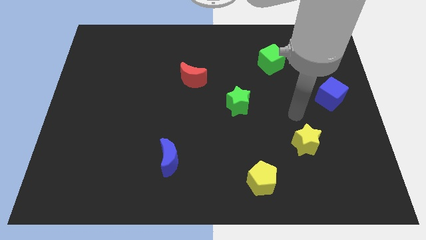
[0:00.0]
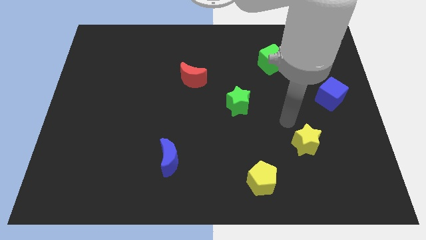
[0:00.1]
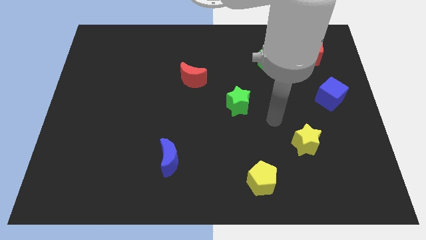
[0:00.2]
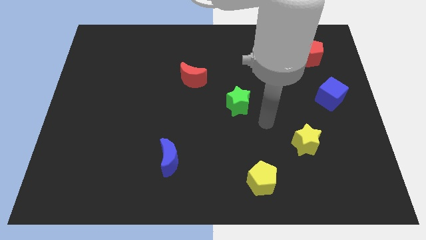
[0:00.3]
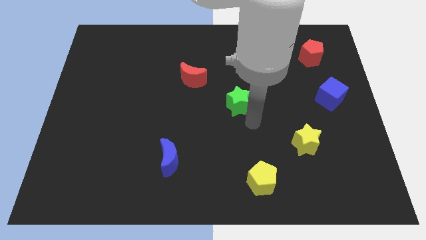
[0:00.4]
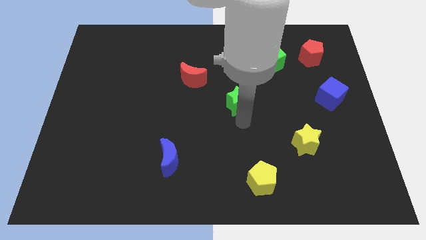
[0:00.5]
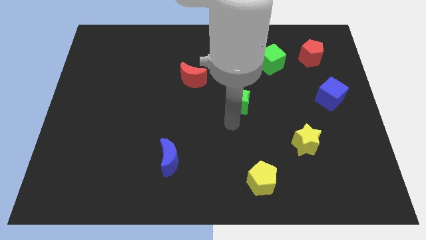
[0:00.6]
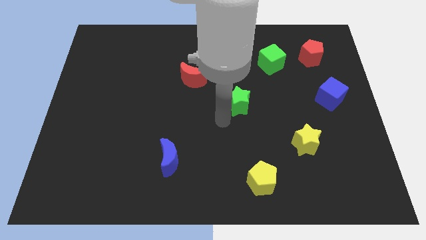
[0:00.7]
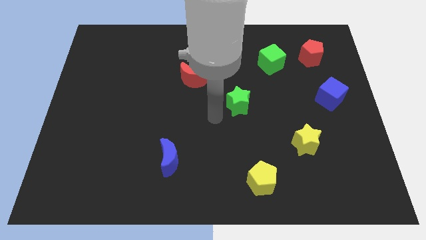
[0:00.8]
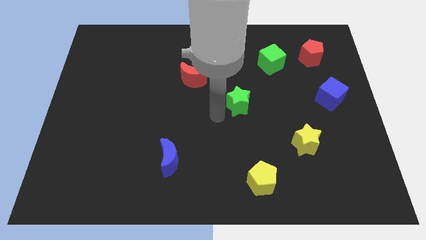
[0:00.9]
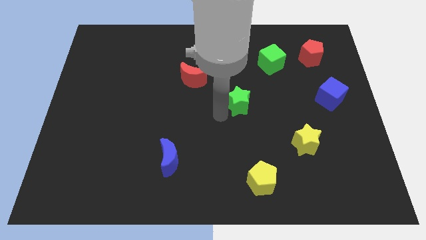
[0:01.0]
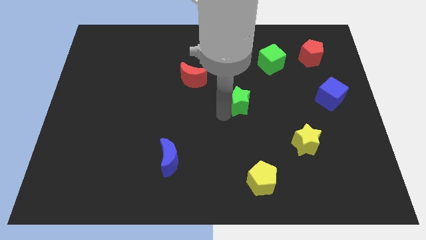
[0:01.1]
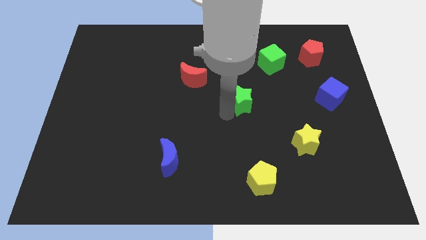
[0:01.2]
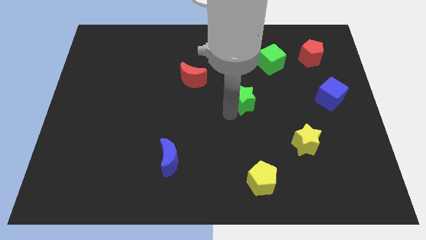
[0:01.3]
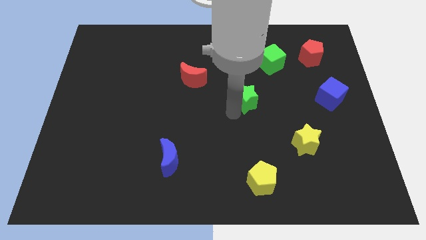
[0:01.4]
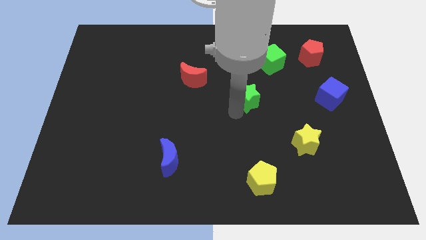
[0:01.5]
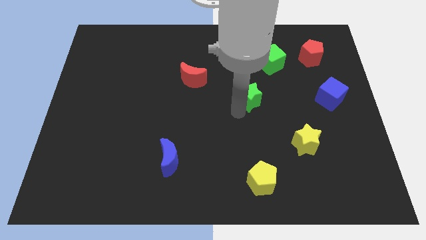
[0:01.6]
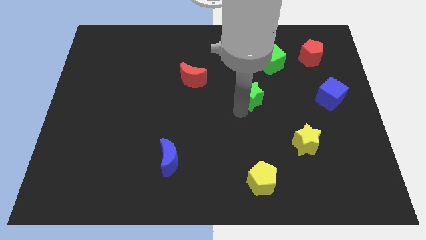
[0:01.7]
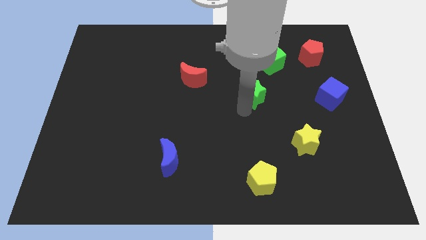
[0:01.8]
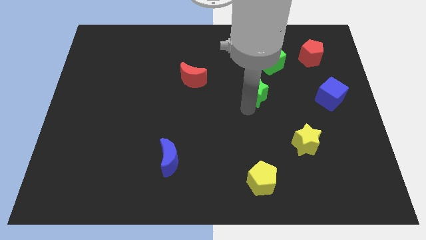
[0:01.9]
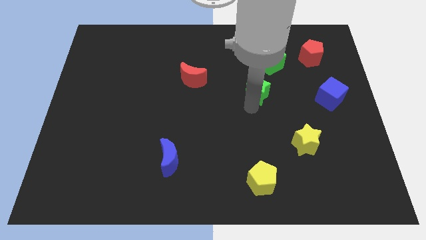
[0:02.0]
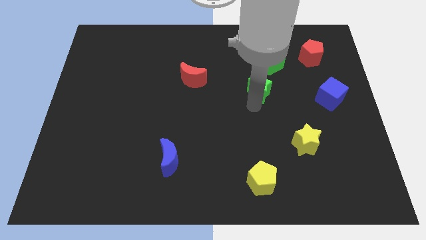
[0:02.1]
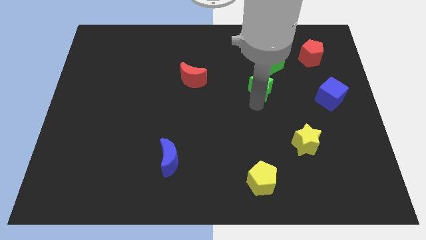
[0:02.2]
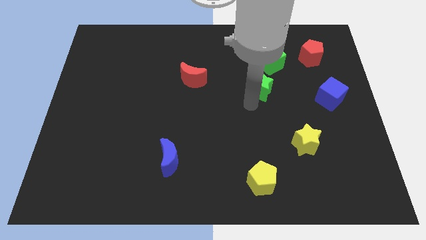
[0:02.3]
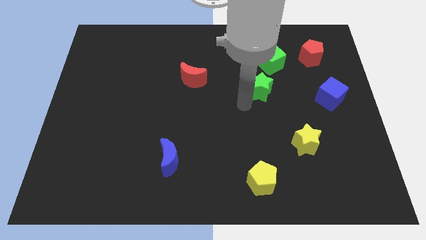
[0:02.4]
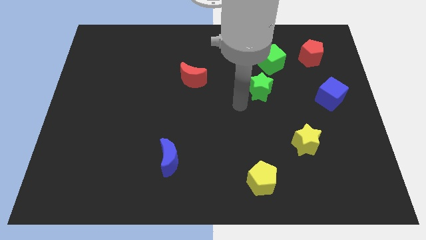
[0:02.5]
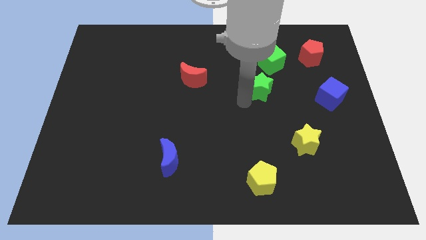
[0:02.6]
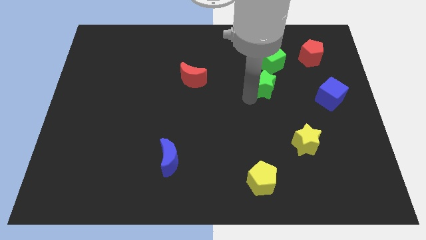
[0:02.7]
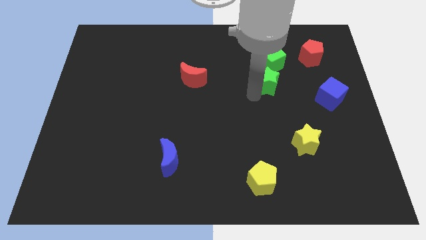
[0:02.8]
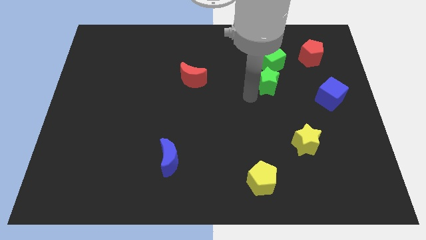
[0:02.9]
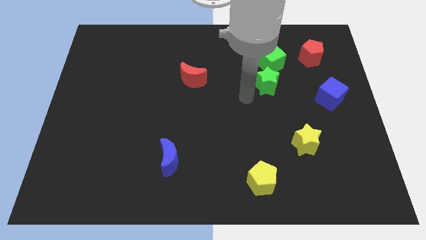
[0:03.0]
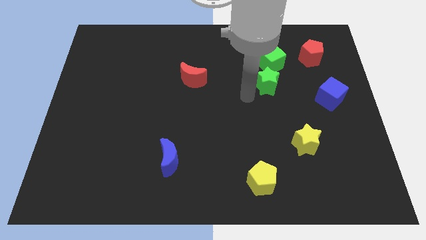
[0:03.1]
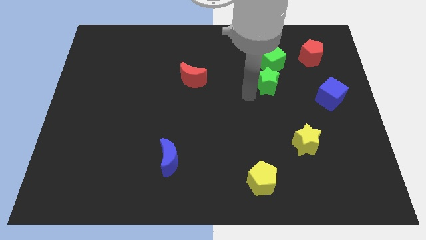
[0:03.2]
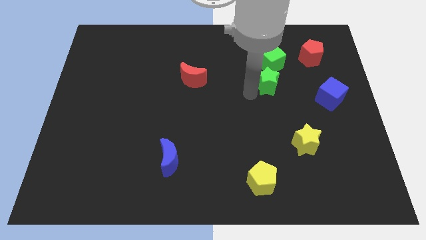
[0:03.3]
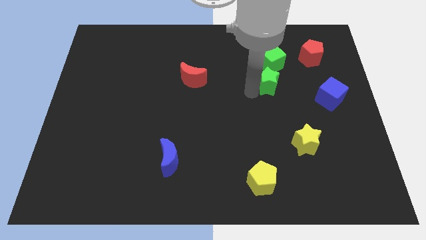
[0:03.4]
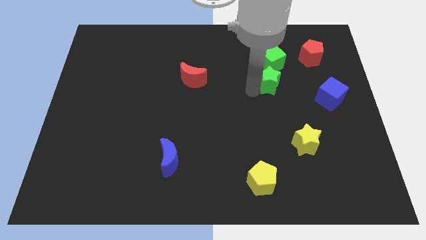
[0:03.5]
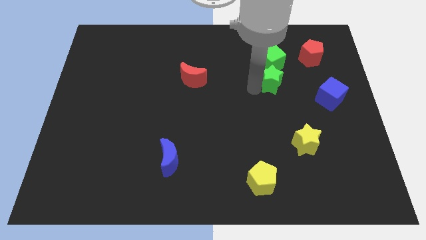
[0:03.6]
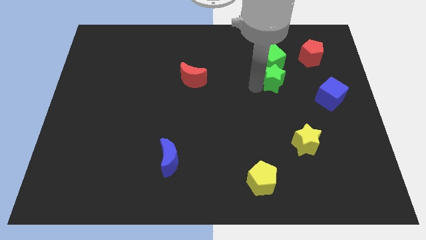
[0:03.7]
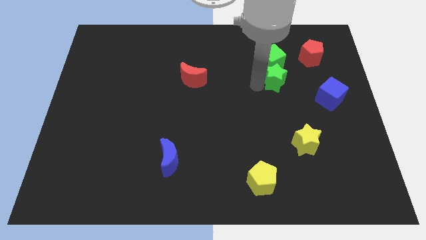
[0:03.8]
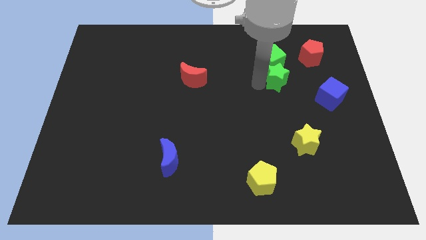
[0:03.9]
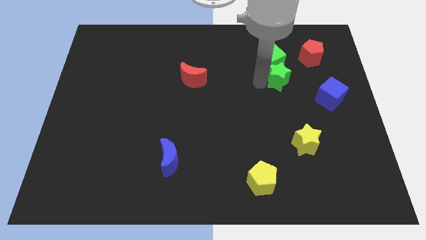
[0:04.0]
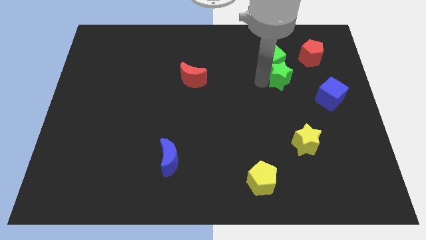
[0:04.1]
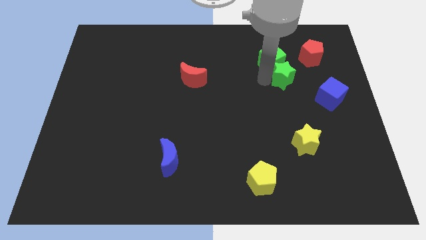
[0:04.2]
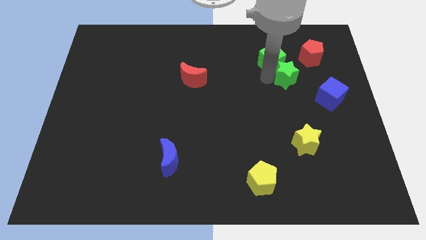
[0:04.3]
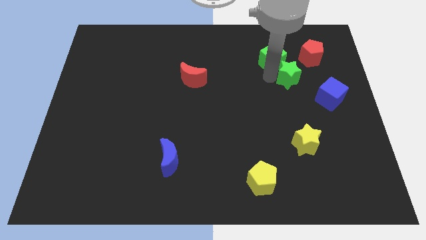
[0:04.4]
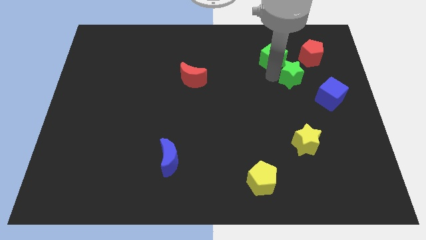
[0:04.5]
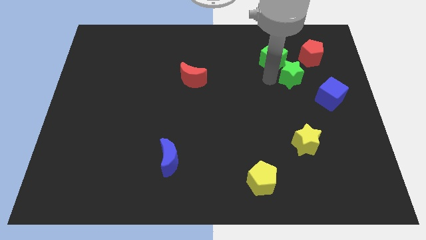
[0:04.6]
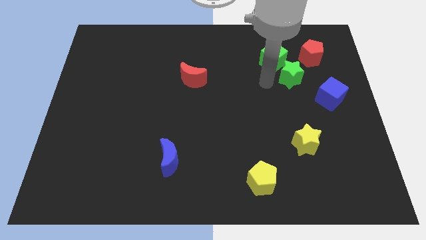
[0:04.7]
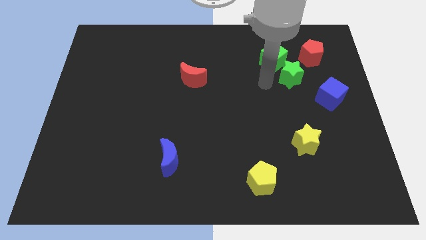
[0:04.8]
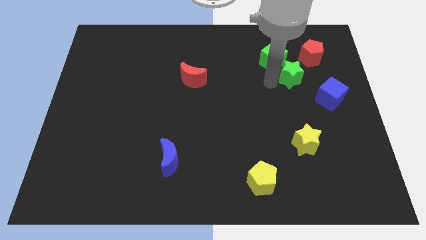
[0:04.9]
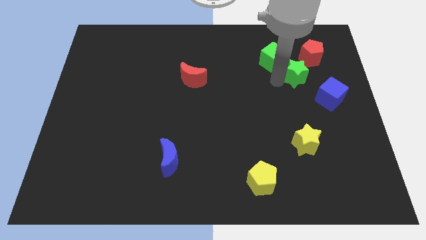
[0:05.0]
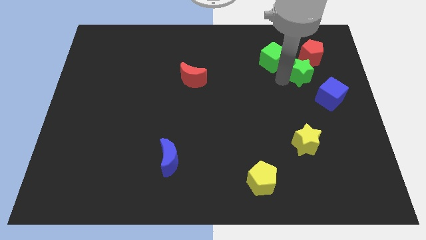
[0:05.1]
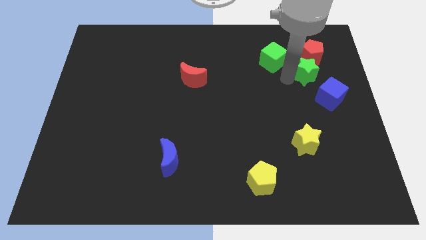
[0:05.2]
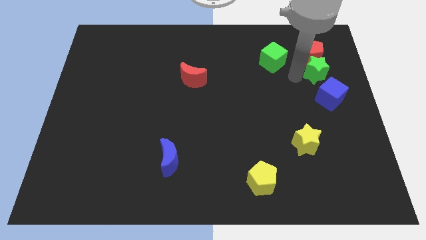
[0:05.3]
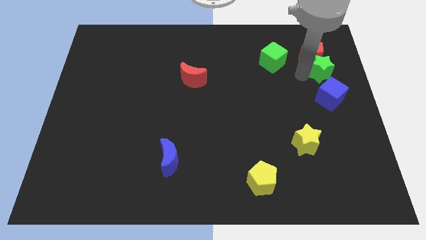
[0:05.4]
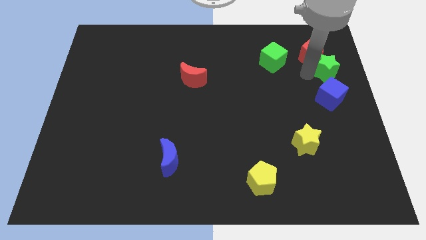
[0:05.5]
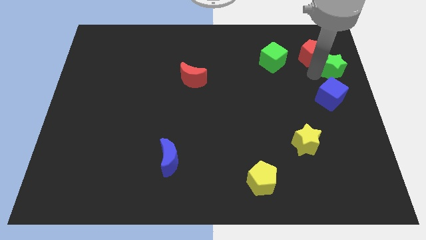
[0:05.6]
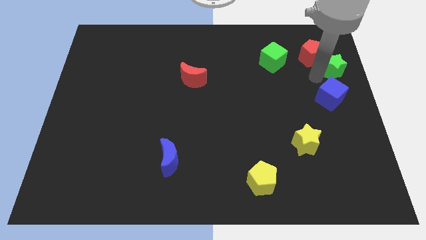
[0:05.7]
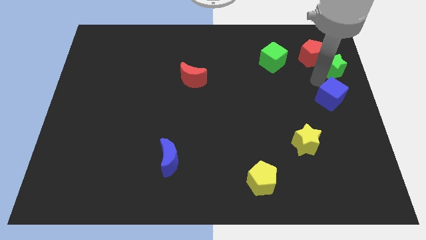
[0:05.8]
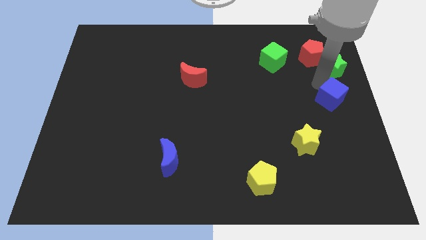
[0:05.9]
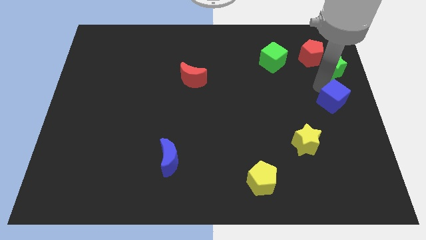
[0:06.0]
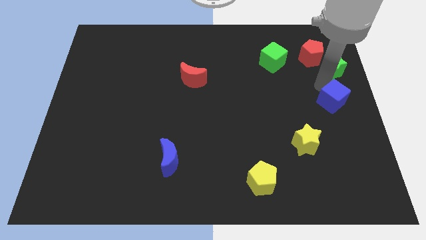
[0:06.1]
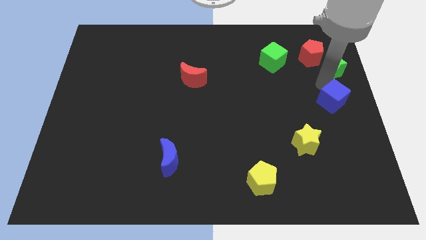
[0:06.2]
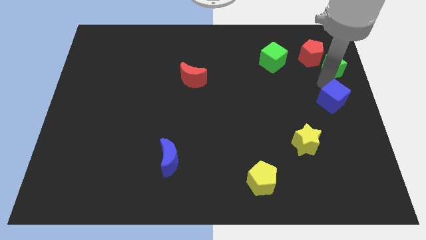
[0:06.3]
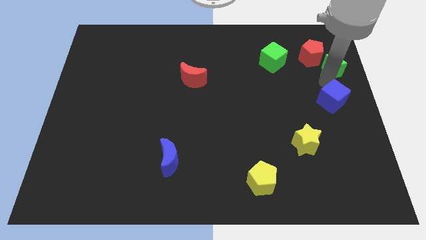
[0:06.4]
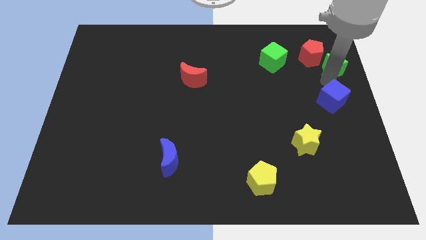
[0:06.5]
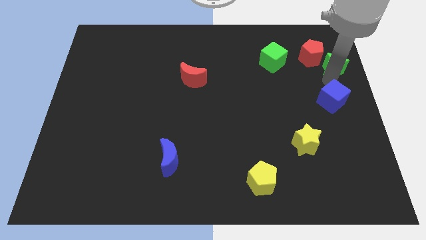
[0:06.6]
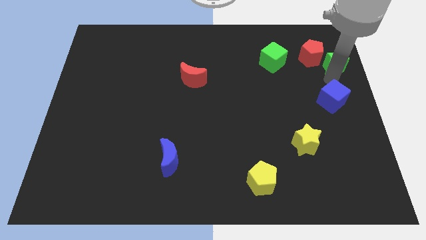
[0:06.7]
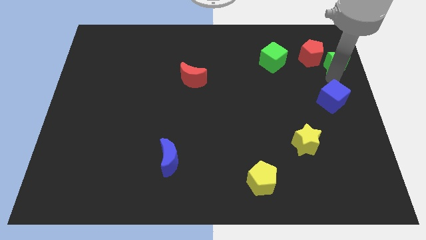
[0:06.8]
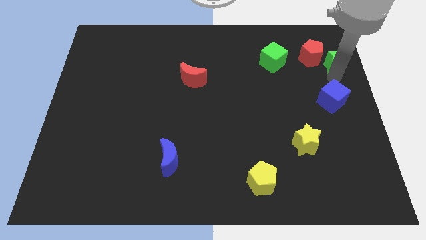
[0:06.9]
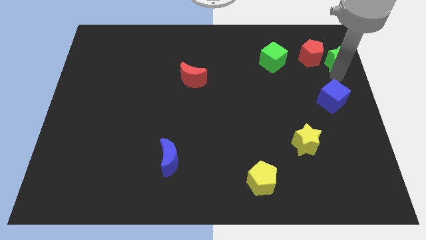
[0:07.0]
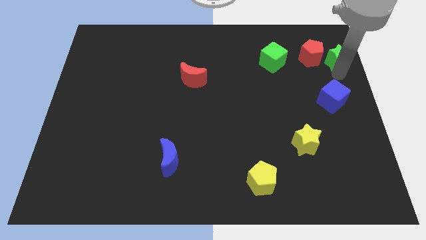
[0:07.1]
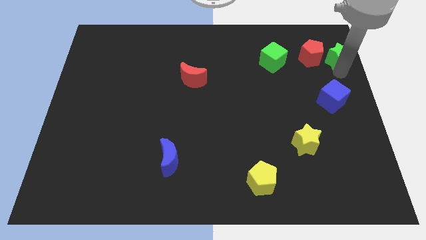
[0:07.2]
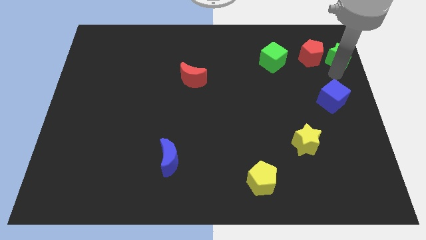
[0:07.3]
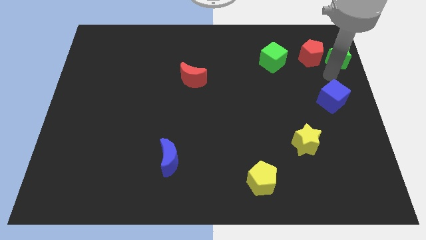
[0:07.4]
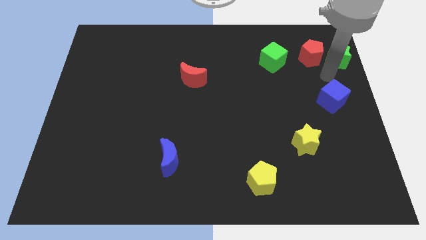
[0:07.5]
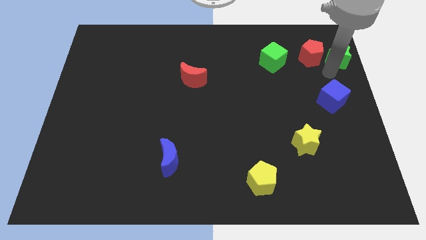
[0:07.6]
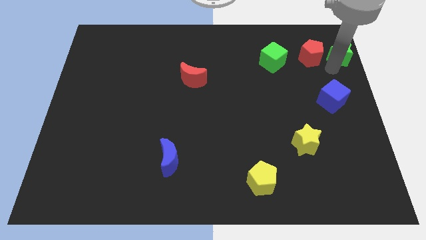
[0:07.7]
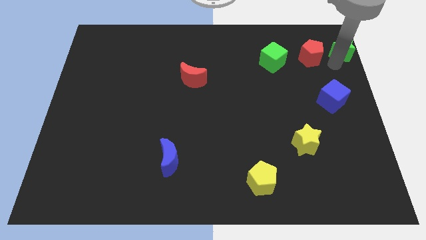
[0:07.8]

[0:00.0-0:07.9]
push the green star to the top right corner
